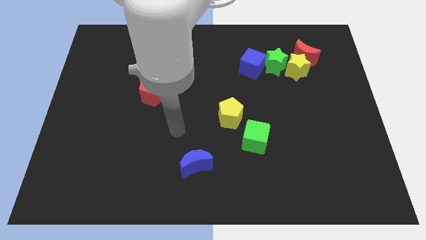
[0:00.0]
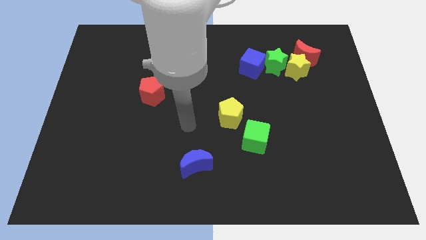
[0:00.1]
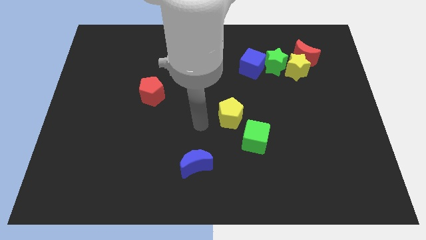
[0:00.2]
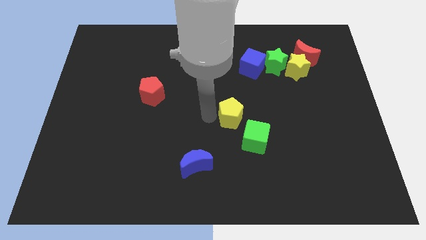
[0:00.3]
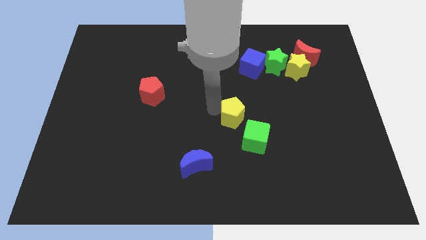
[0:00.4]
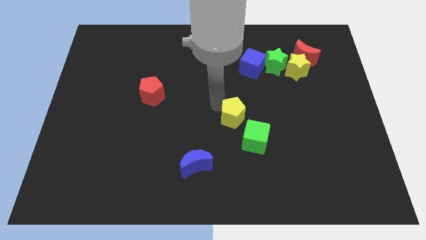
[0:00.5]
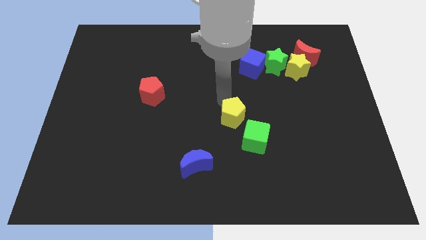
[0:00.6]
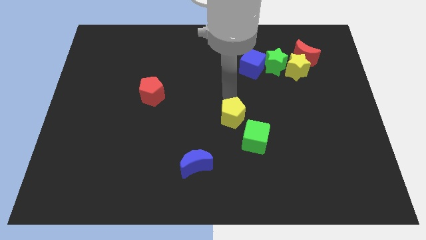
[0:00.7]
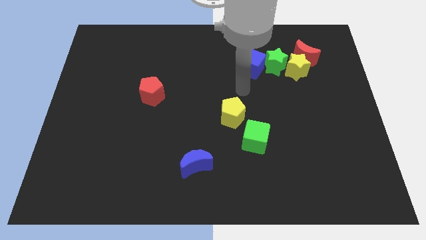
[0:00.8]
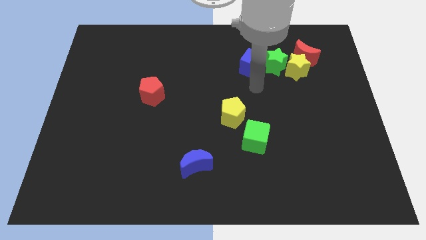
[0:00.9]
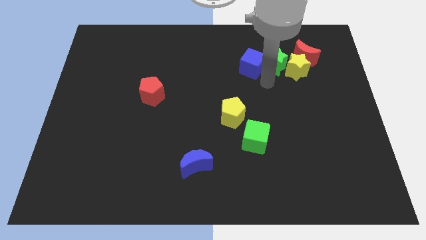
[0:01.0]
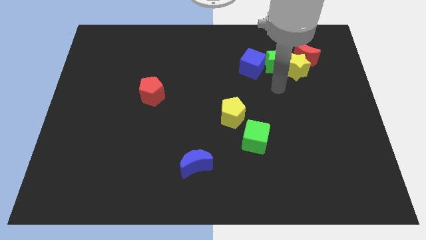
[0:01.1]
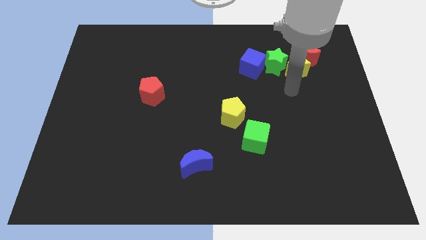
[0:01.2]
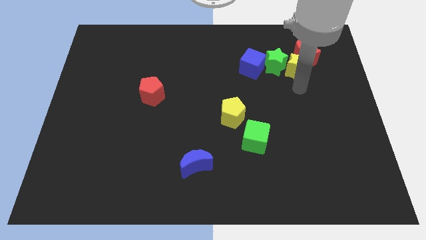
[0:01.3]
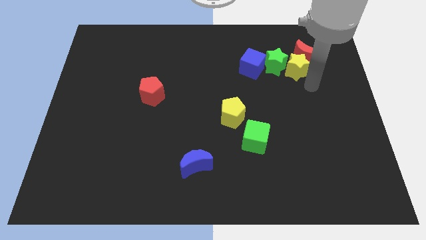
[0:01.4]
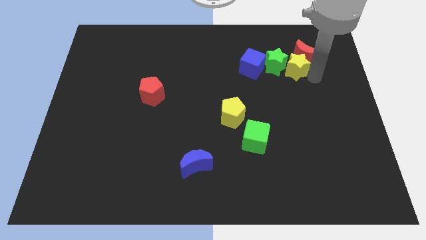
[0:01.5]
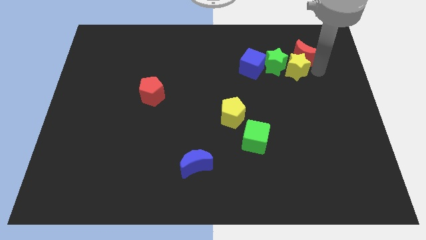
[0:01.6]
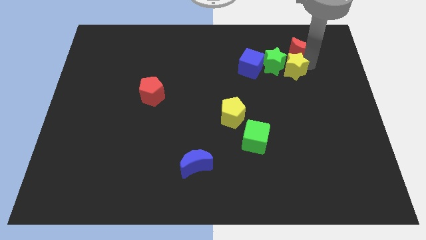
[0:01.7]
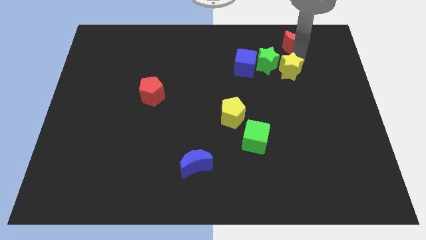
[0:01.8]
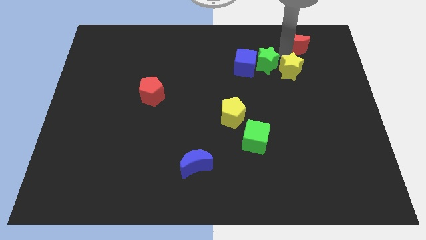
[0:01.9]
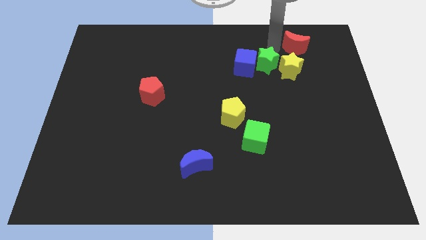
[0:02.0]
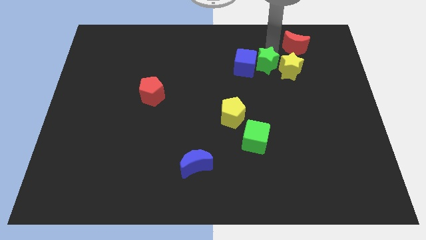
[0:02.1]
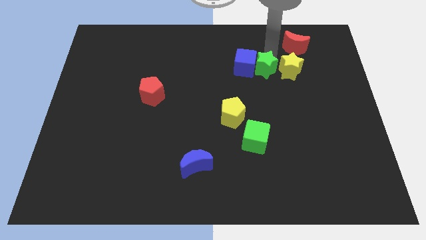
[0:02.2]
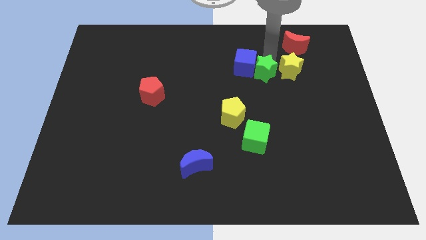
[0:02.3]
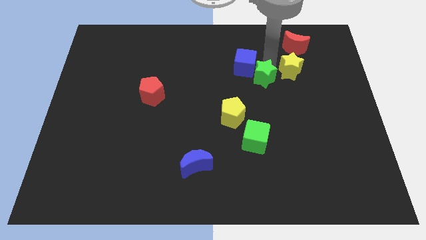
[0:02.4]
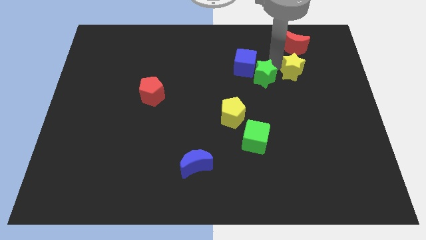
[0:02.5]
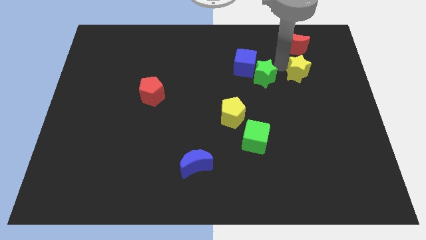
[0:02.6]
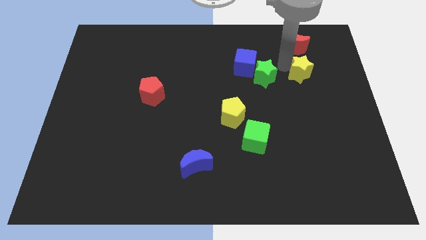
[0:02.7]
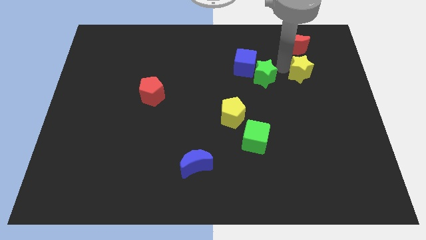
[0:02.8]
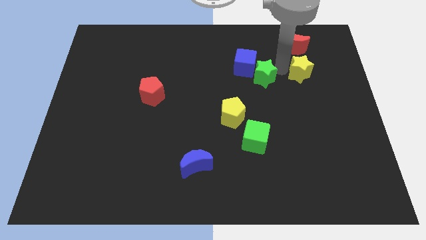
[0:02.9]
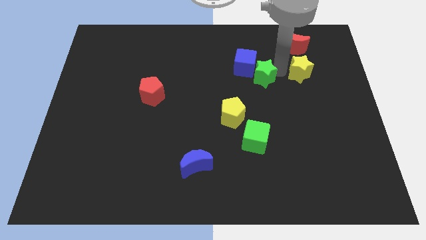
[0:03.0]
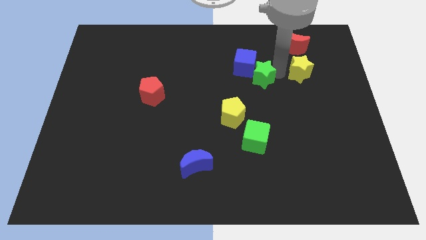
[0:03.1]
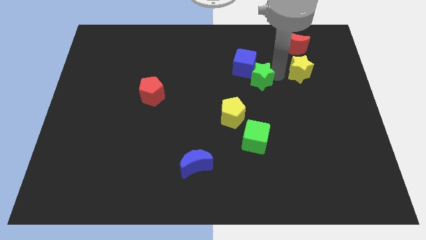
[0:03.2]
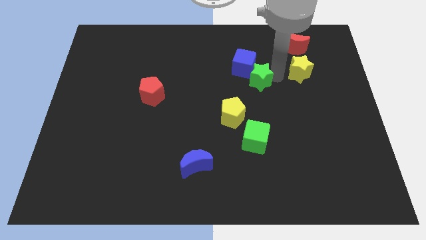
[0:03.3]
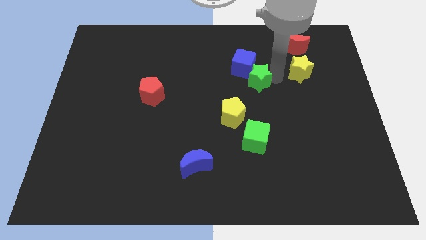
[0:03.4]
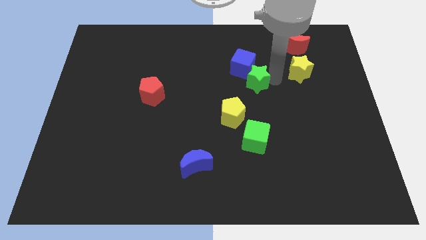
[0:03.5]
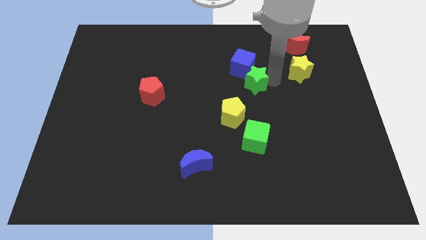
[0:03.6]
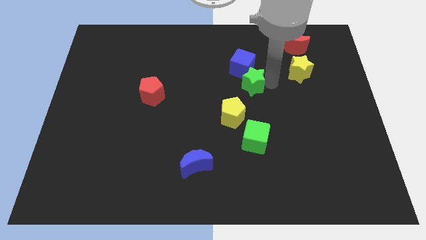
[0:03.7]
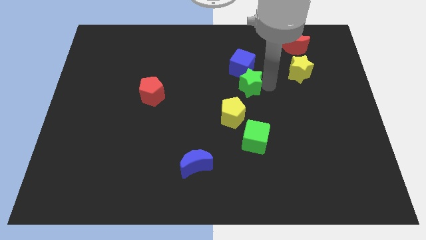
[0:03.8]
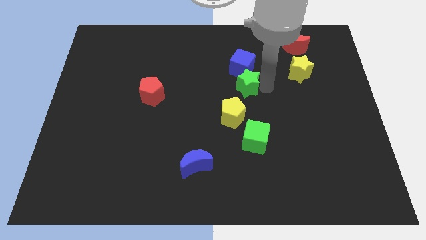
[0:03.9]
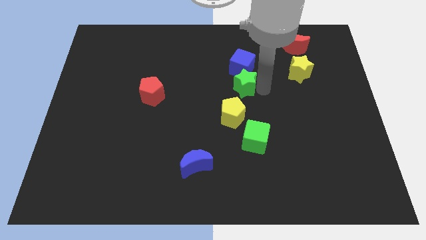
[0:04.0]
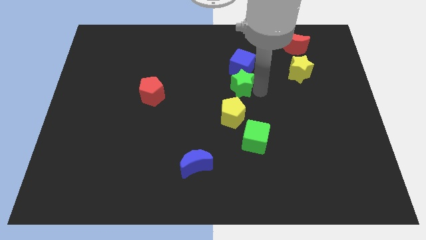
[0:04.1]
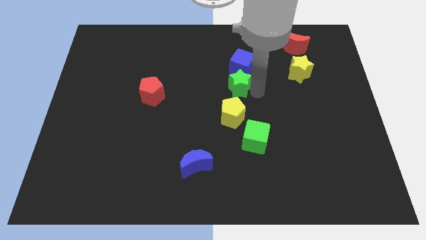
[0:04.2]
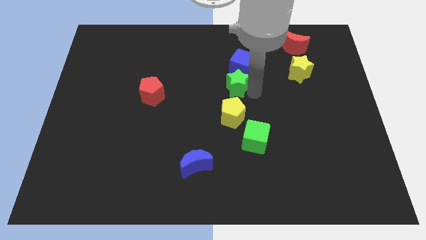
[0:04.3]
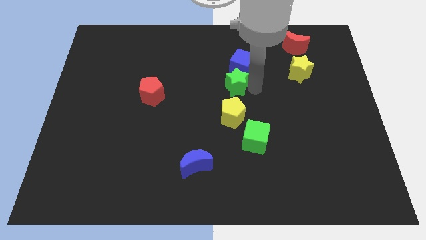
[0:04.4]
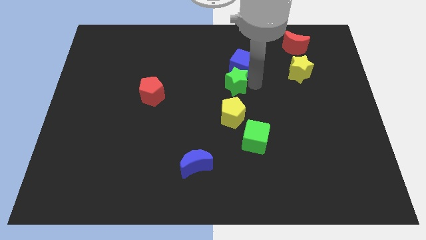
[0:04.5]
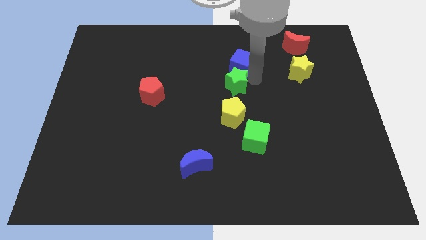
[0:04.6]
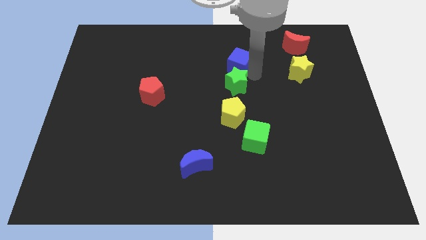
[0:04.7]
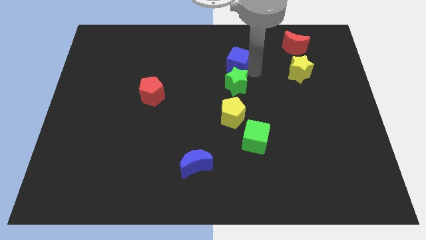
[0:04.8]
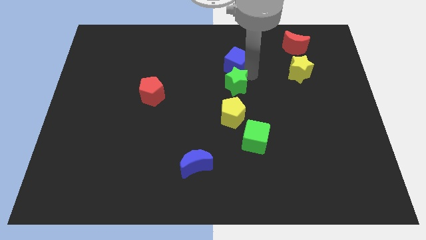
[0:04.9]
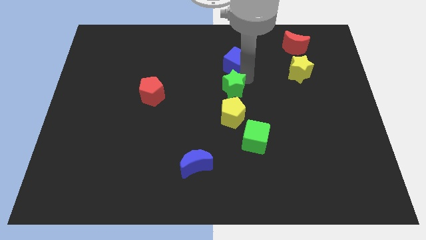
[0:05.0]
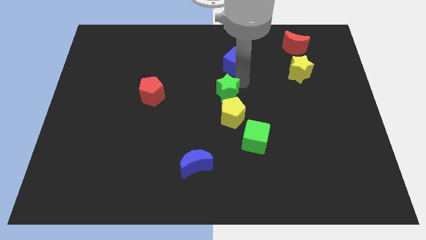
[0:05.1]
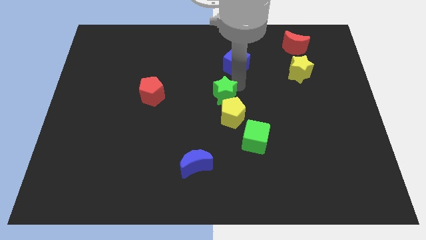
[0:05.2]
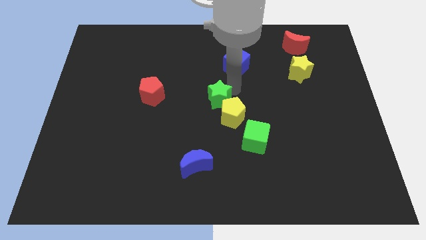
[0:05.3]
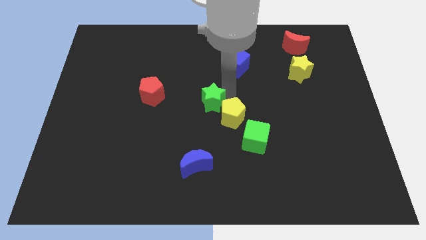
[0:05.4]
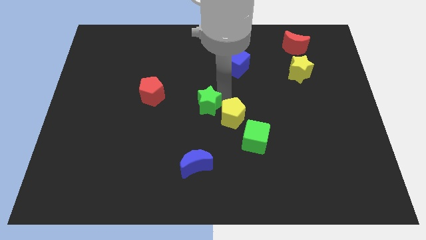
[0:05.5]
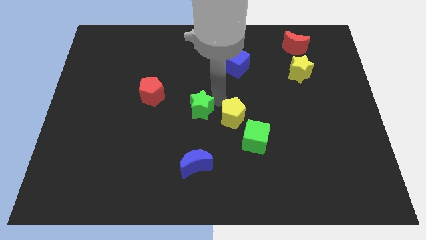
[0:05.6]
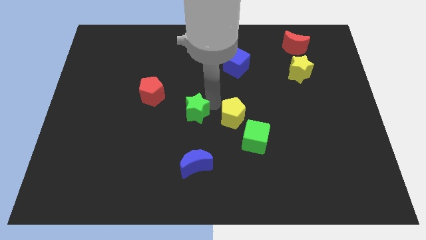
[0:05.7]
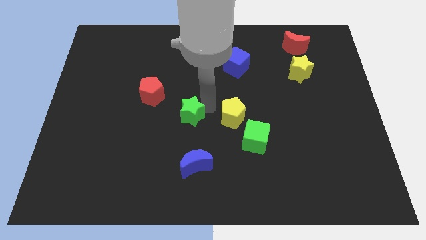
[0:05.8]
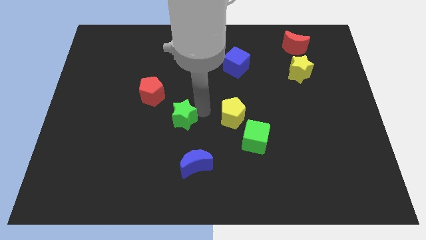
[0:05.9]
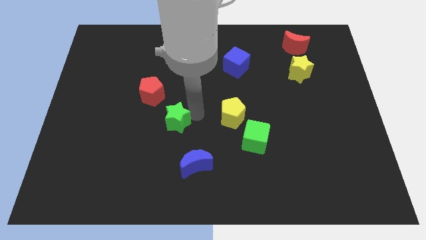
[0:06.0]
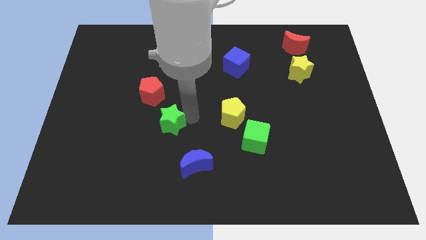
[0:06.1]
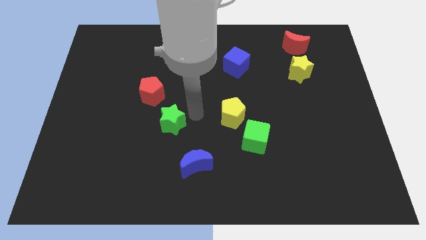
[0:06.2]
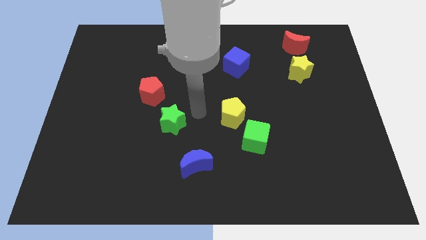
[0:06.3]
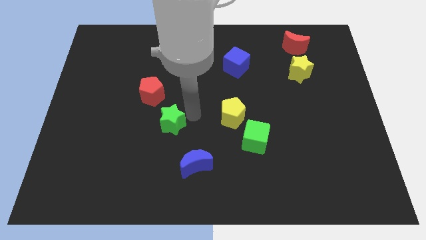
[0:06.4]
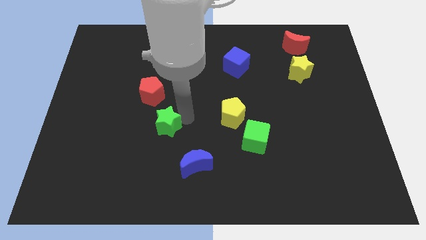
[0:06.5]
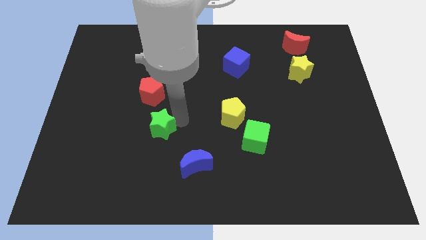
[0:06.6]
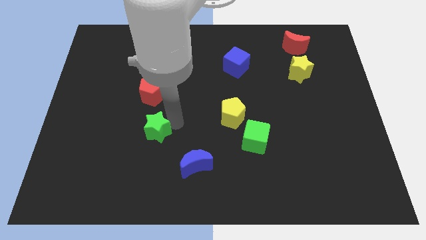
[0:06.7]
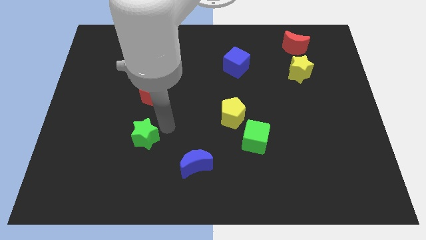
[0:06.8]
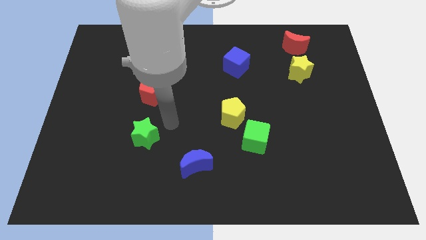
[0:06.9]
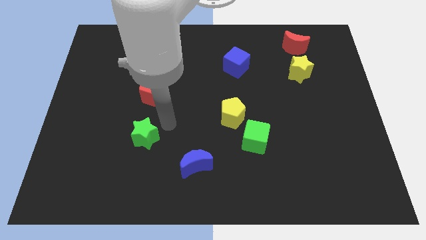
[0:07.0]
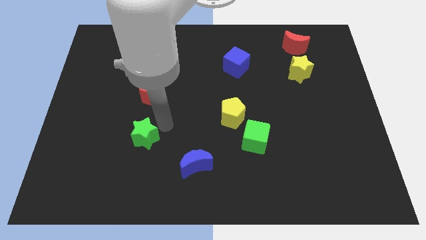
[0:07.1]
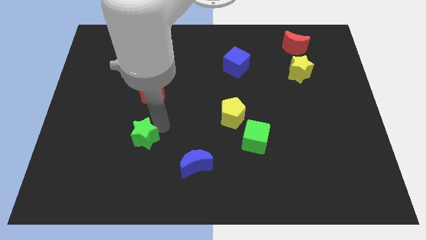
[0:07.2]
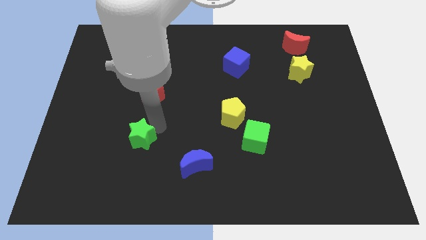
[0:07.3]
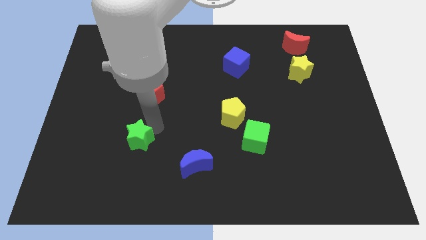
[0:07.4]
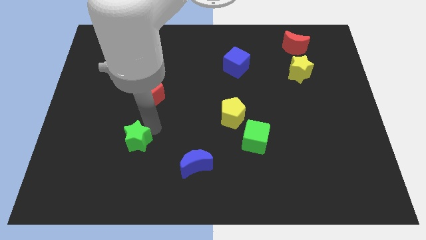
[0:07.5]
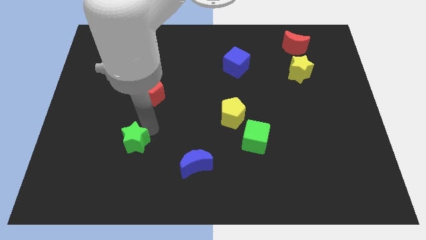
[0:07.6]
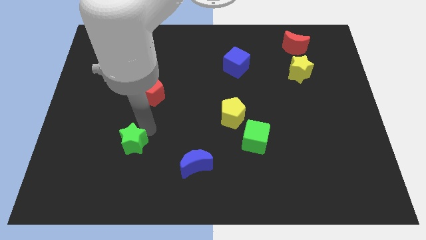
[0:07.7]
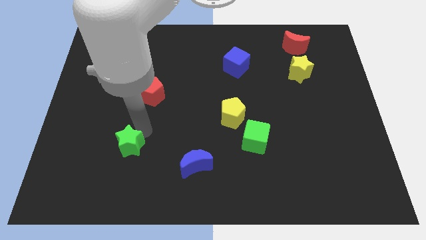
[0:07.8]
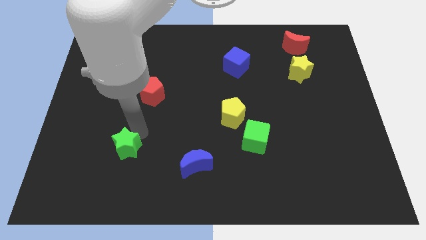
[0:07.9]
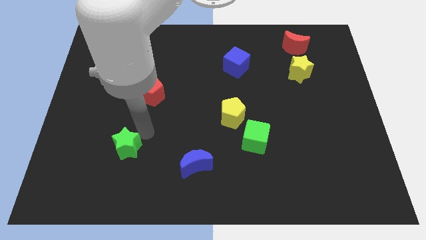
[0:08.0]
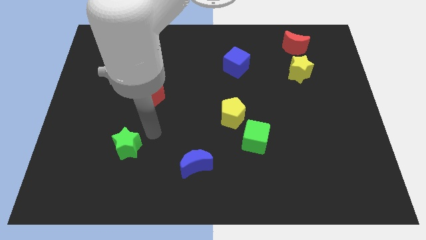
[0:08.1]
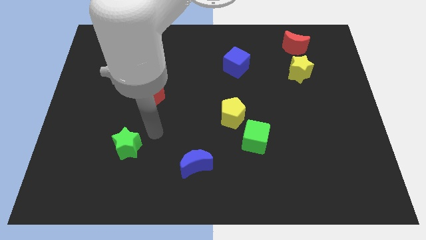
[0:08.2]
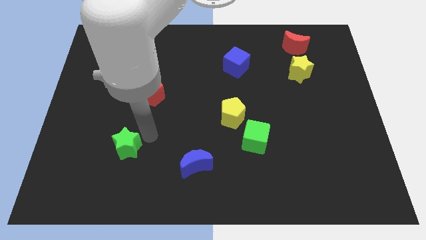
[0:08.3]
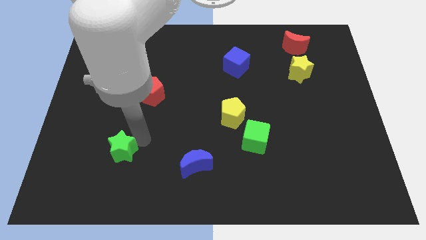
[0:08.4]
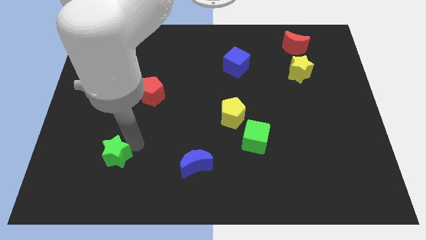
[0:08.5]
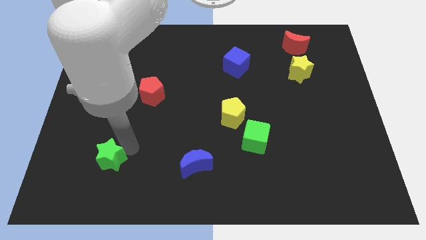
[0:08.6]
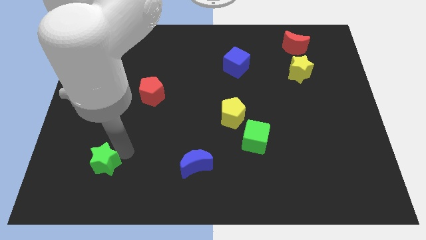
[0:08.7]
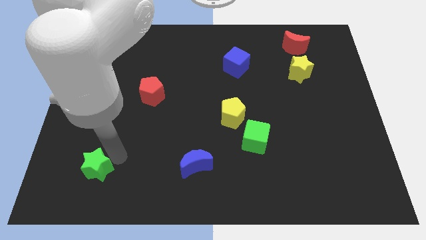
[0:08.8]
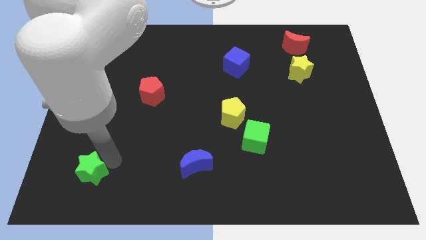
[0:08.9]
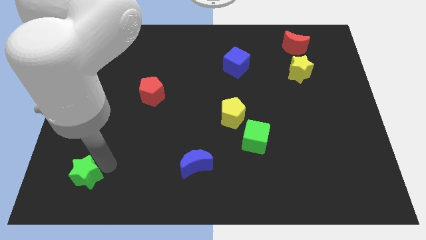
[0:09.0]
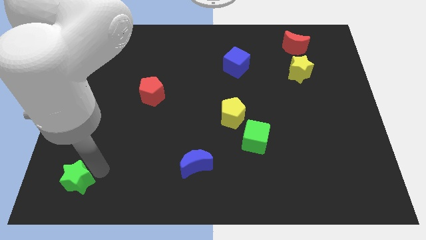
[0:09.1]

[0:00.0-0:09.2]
push the green star to the bottom left corner
